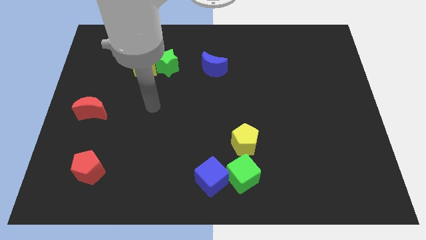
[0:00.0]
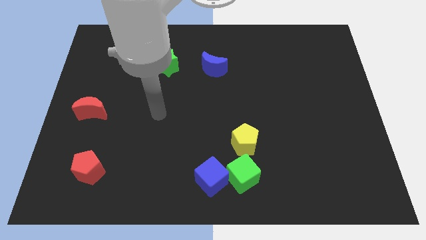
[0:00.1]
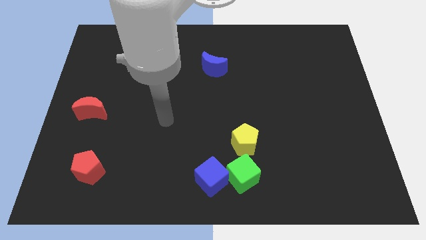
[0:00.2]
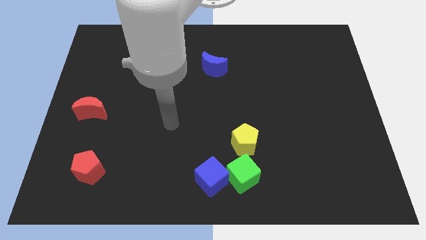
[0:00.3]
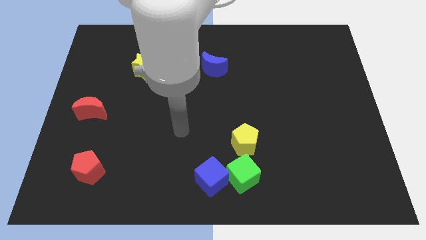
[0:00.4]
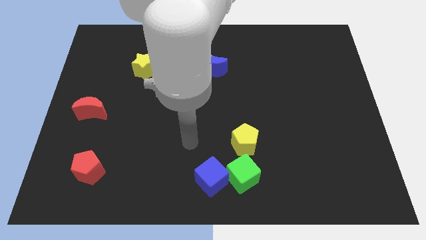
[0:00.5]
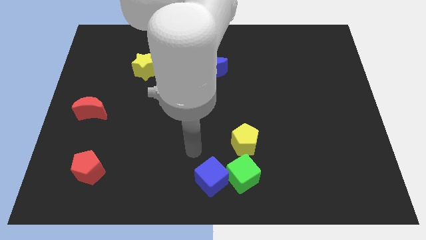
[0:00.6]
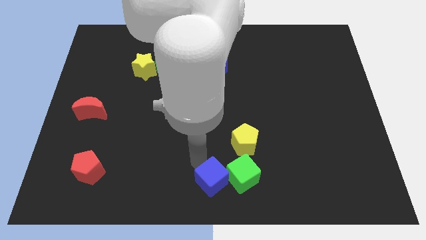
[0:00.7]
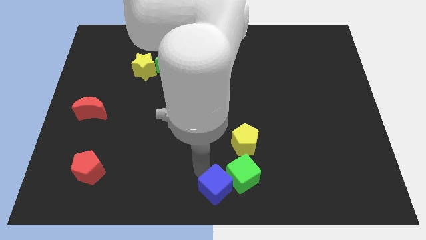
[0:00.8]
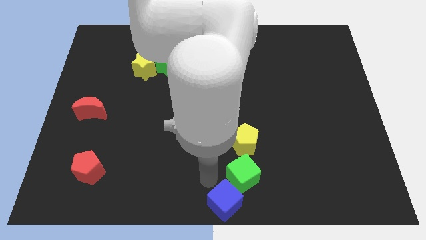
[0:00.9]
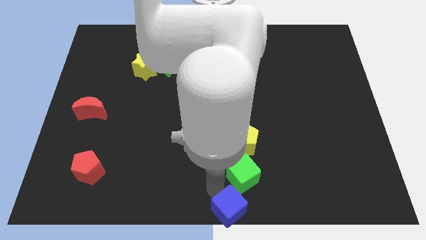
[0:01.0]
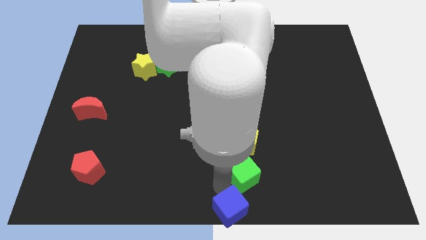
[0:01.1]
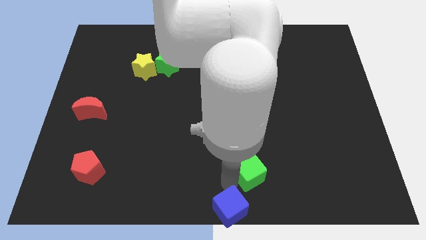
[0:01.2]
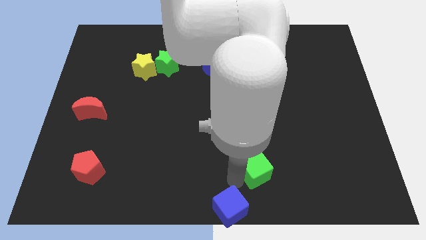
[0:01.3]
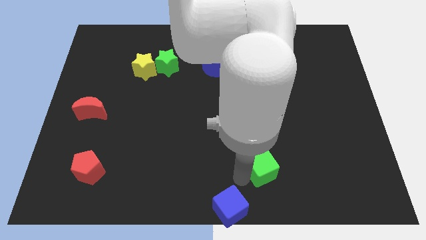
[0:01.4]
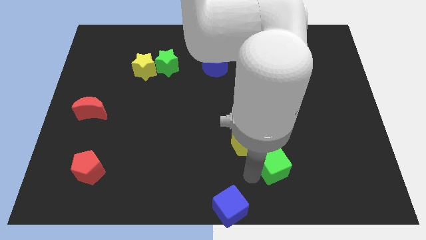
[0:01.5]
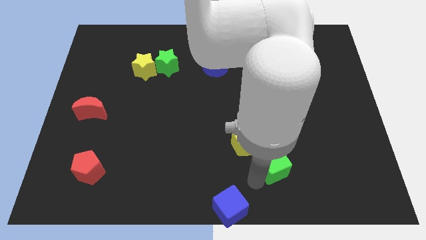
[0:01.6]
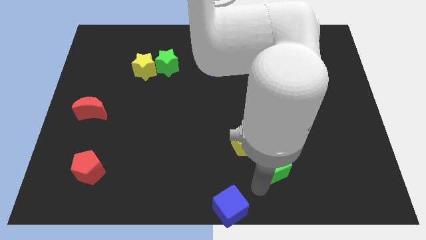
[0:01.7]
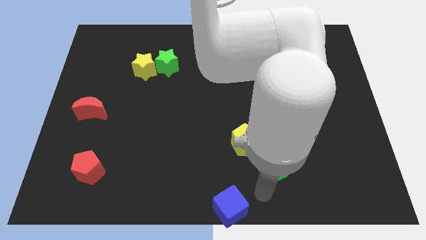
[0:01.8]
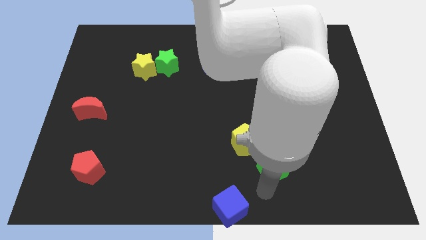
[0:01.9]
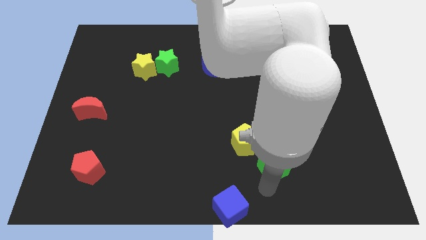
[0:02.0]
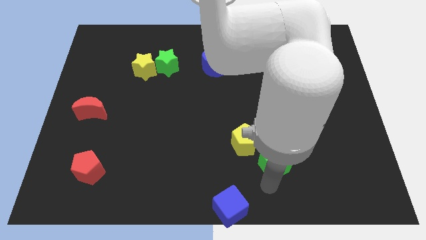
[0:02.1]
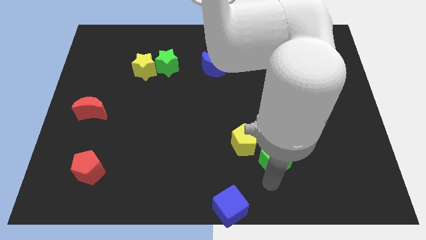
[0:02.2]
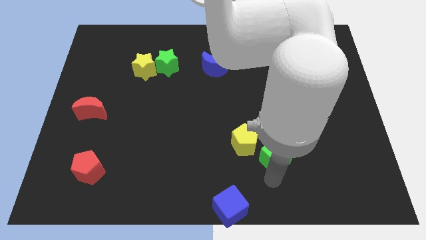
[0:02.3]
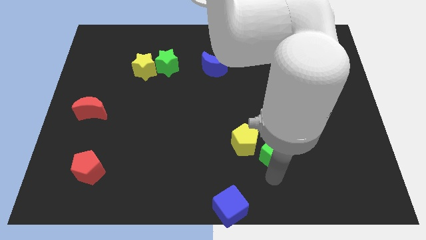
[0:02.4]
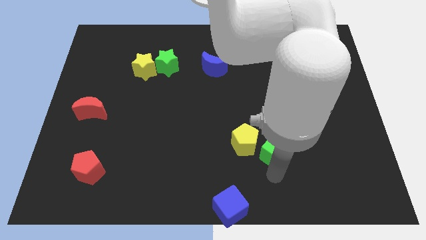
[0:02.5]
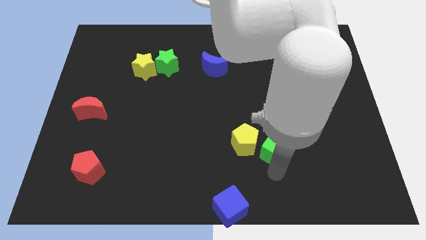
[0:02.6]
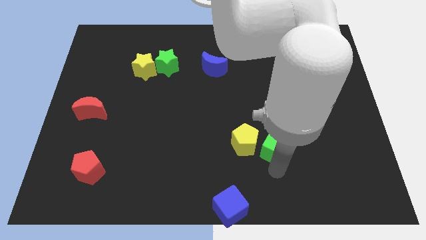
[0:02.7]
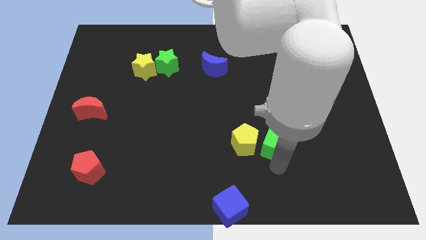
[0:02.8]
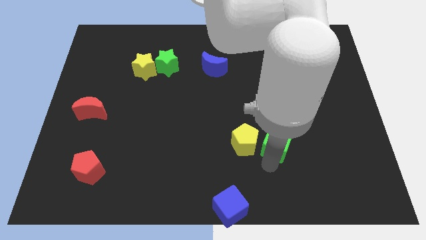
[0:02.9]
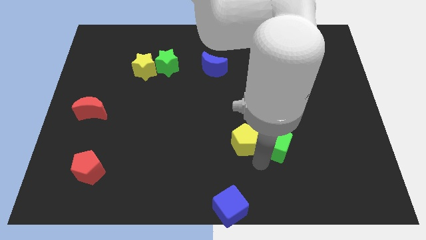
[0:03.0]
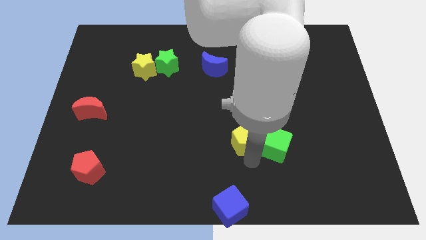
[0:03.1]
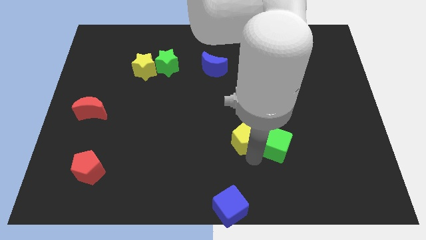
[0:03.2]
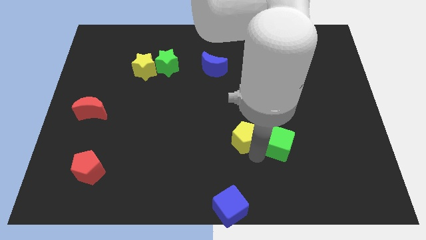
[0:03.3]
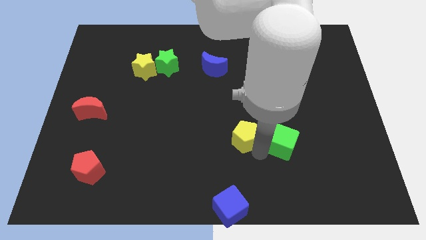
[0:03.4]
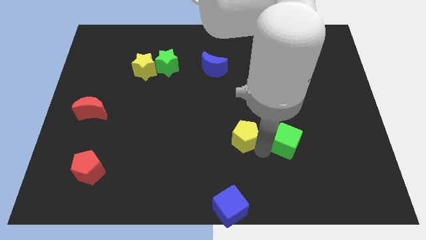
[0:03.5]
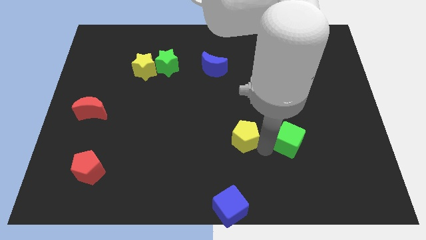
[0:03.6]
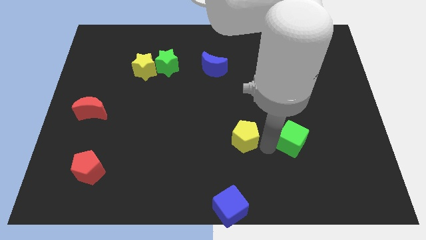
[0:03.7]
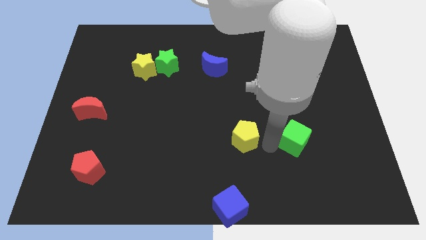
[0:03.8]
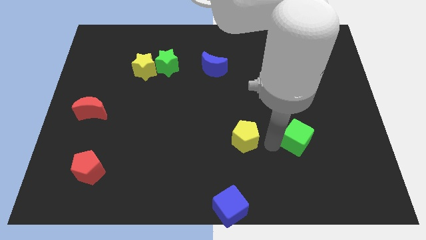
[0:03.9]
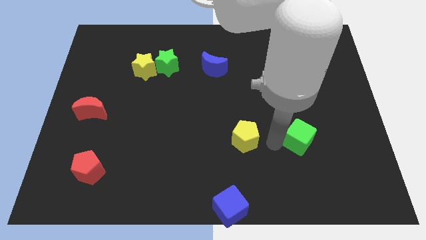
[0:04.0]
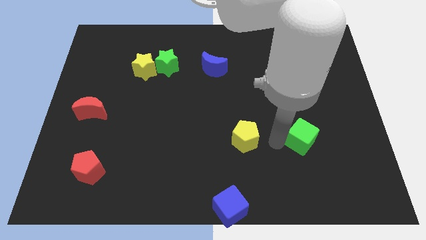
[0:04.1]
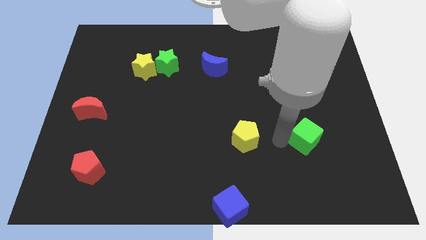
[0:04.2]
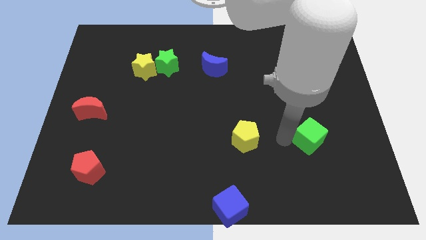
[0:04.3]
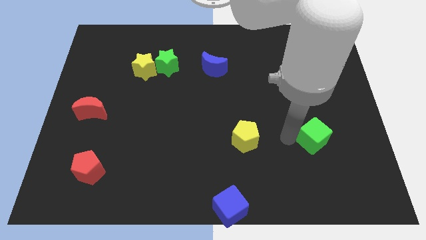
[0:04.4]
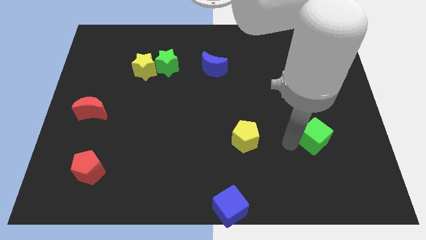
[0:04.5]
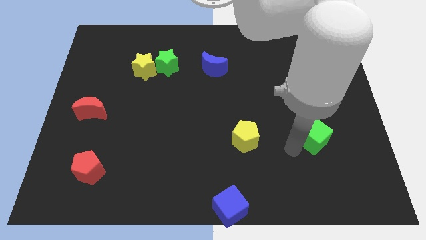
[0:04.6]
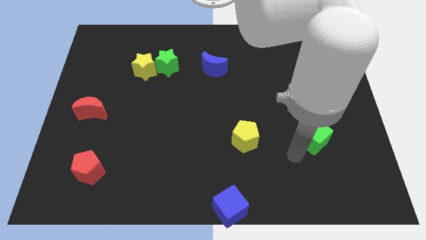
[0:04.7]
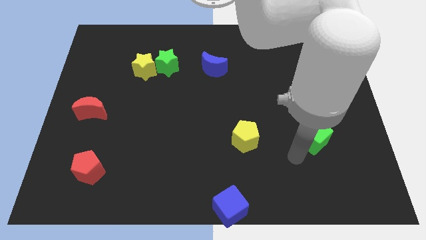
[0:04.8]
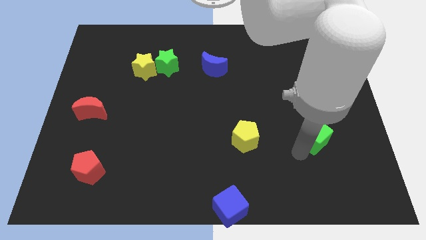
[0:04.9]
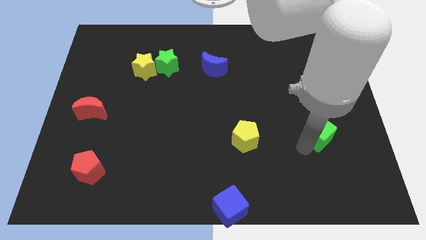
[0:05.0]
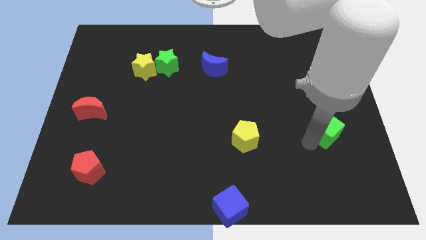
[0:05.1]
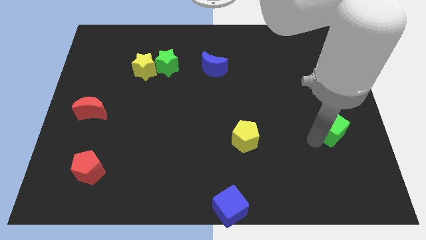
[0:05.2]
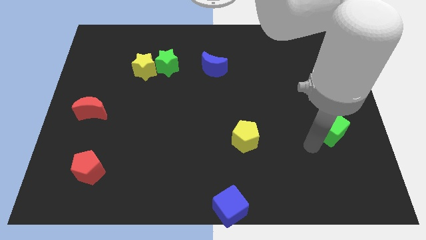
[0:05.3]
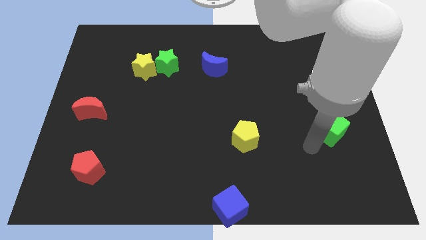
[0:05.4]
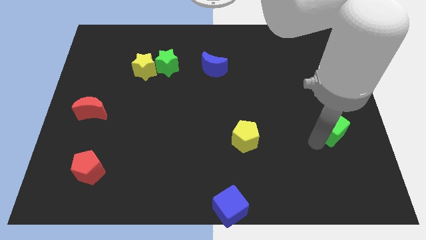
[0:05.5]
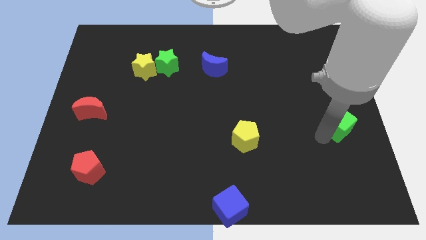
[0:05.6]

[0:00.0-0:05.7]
push the green cube to the right side of the board
